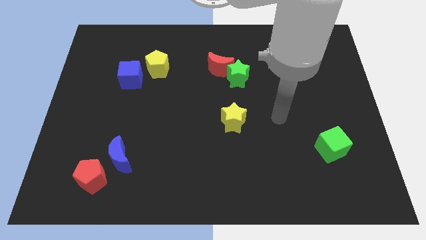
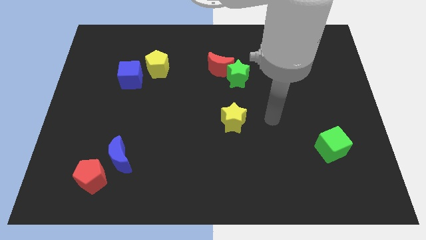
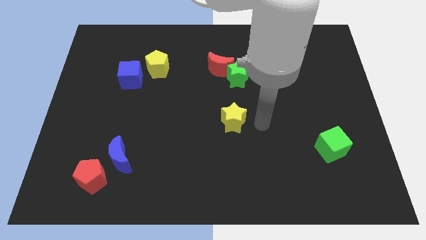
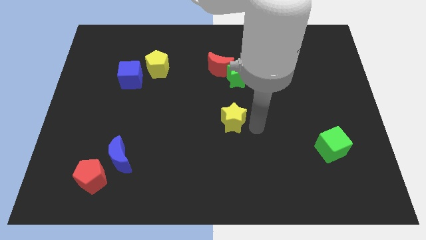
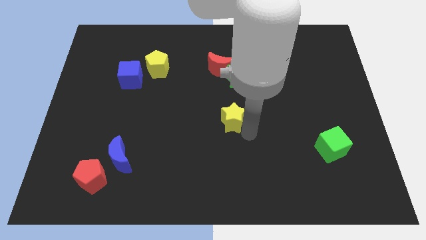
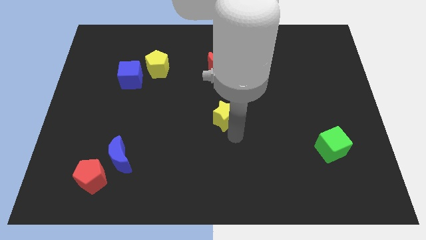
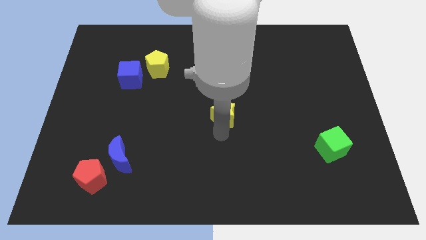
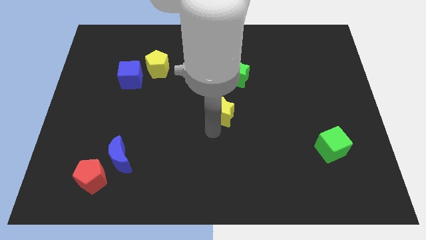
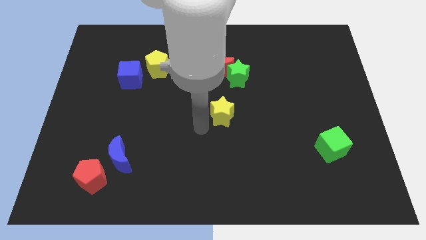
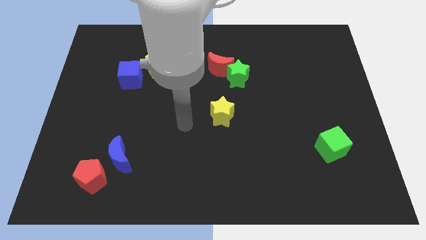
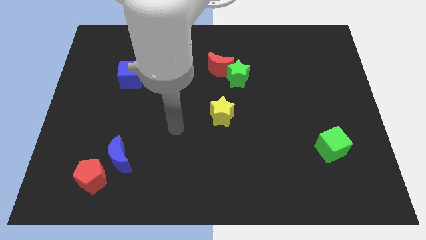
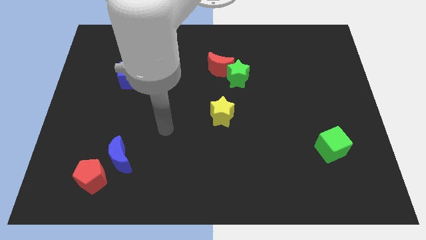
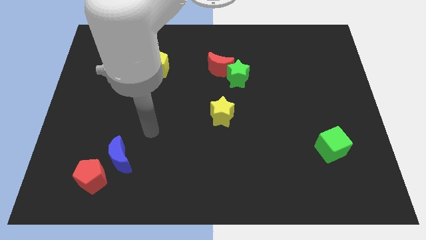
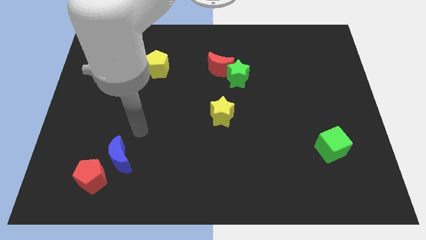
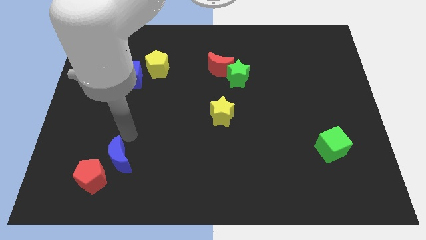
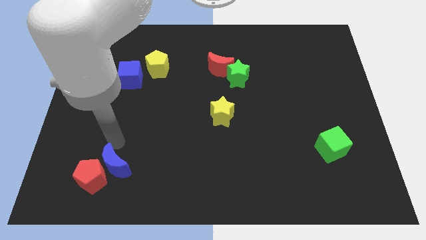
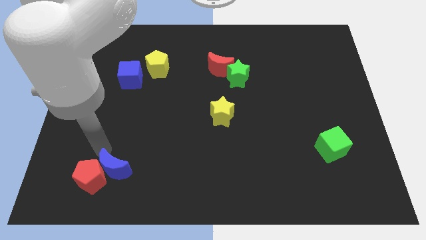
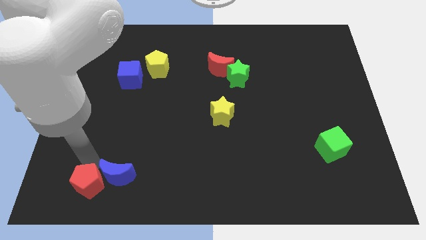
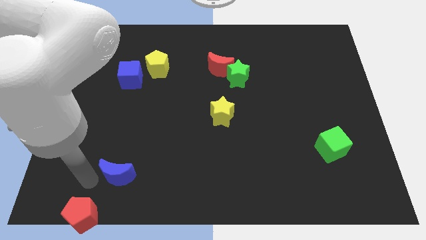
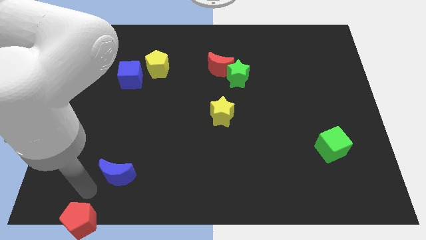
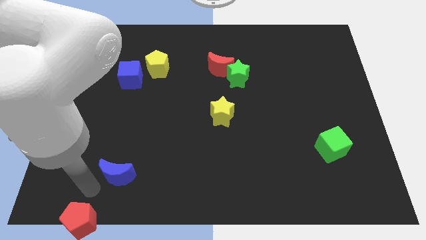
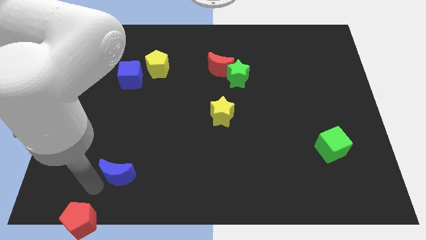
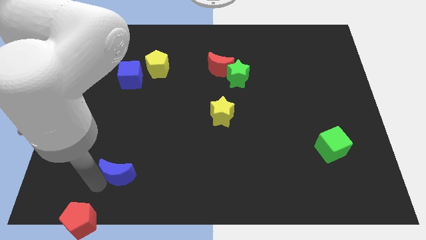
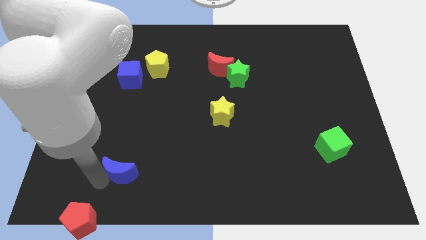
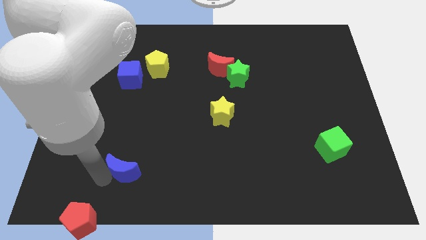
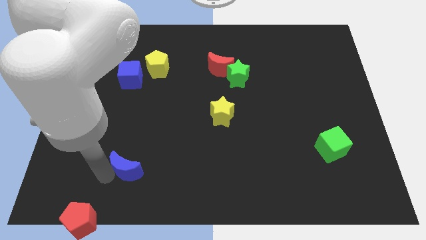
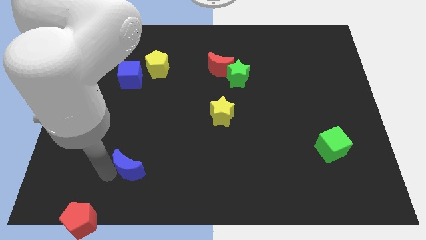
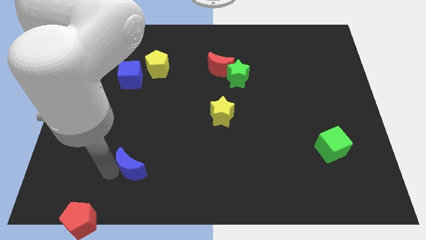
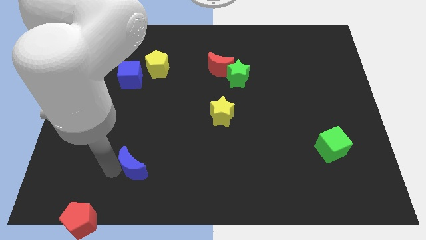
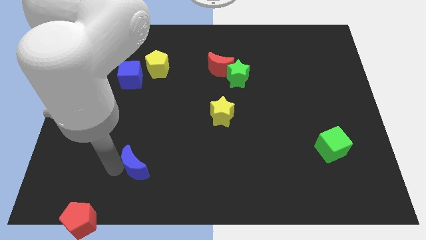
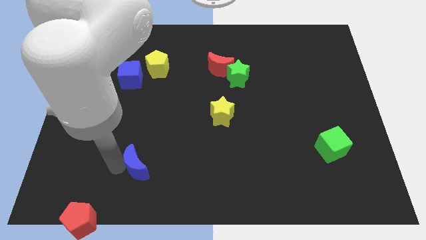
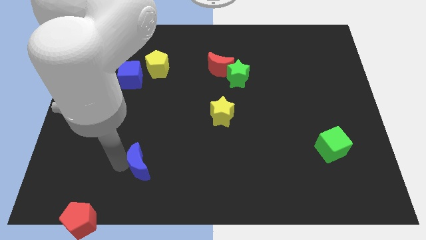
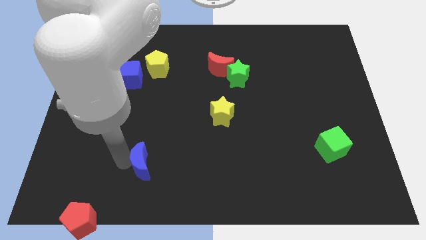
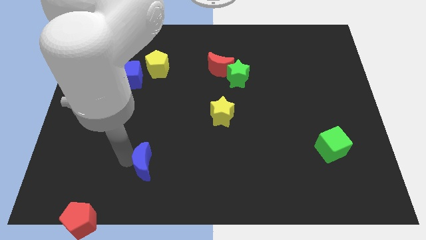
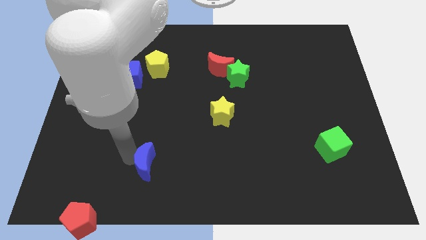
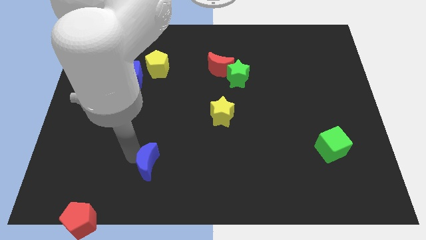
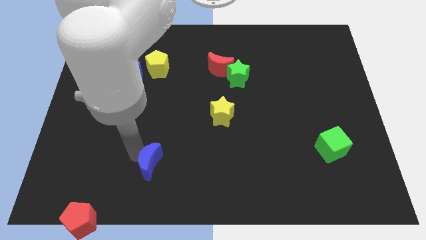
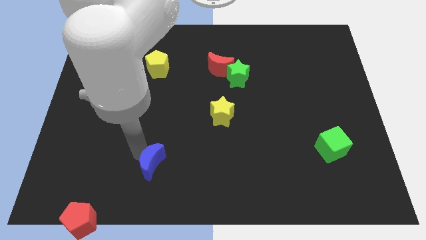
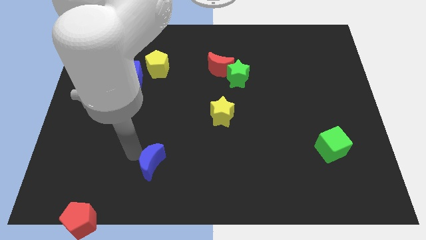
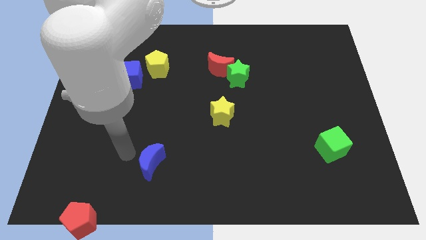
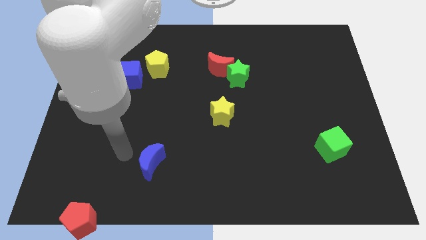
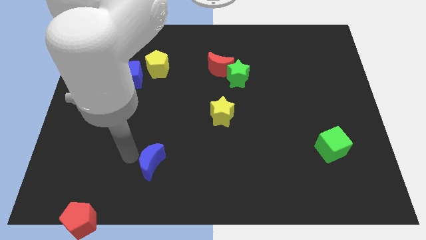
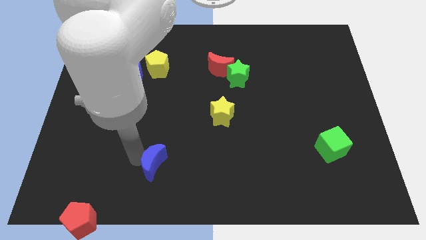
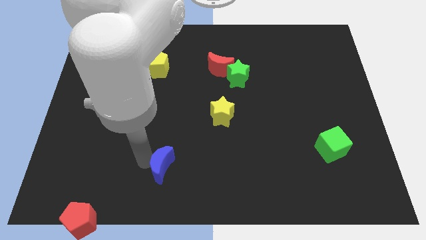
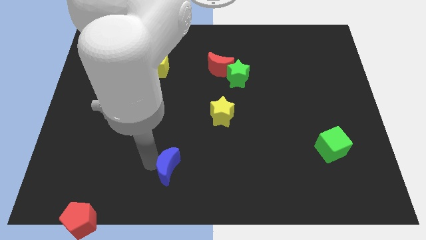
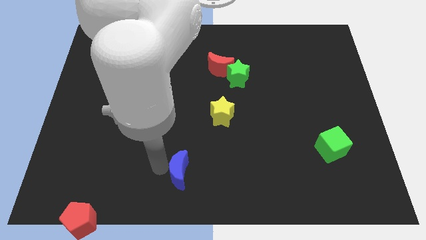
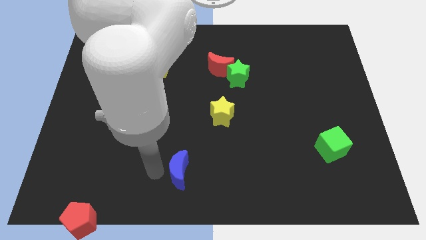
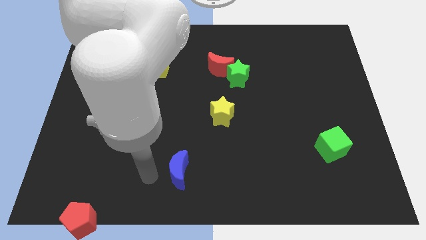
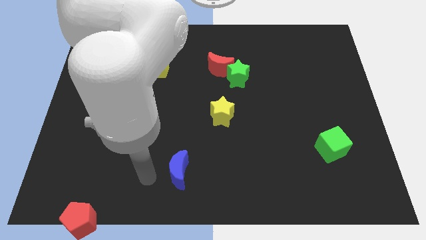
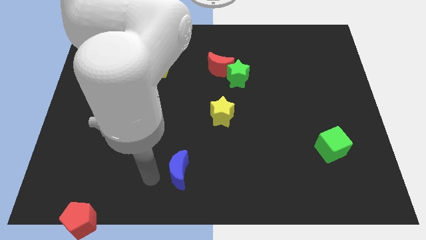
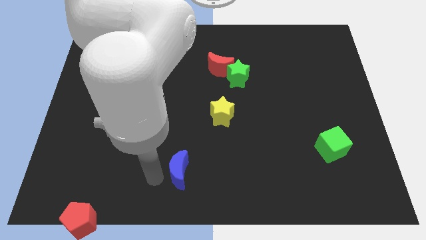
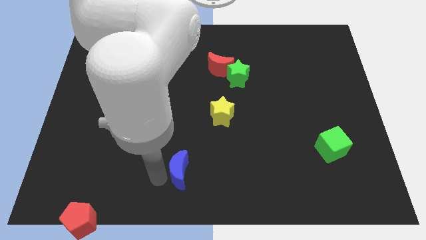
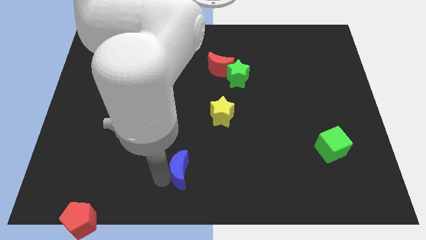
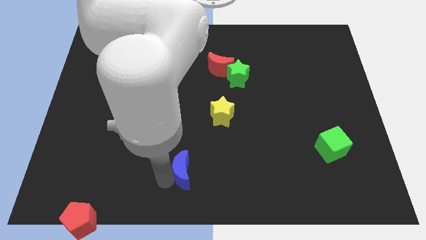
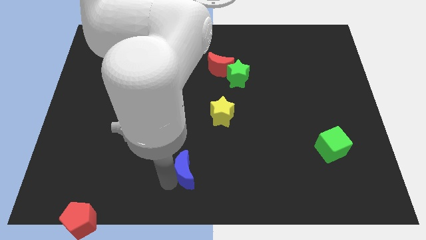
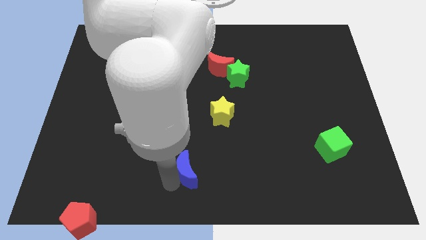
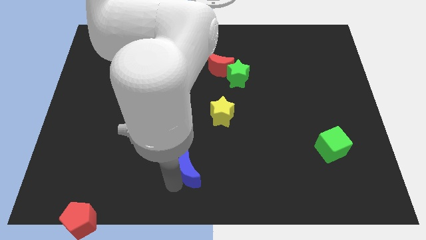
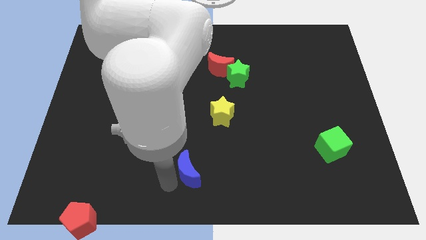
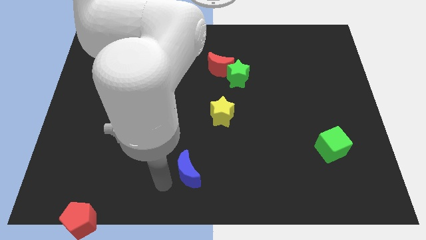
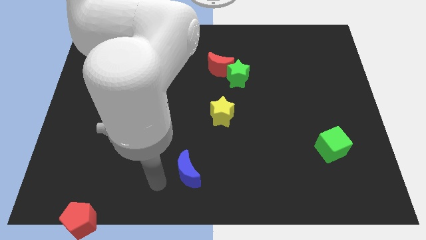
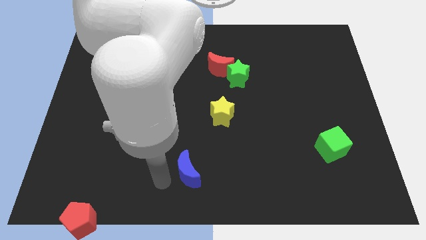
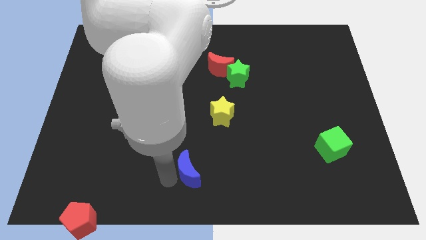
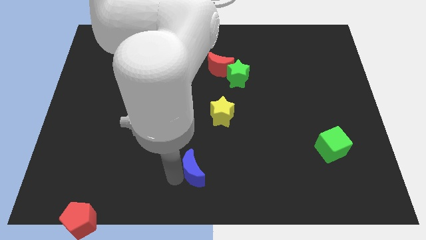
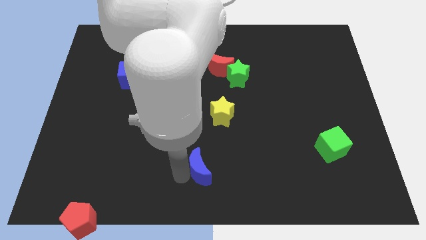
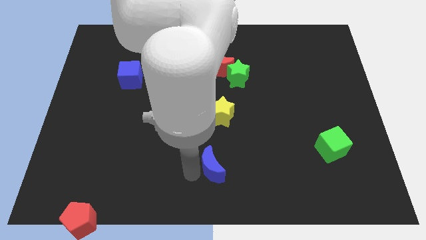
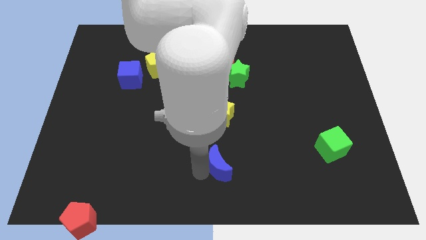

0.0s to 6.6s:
push the blue moon right

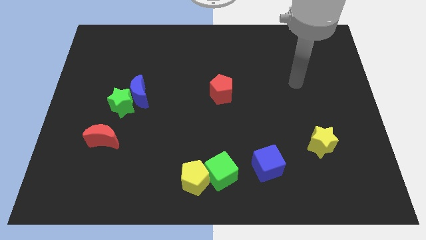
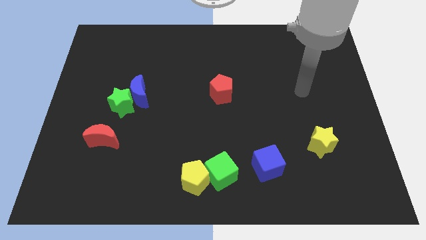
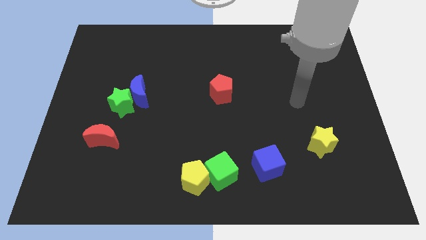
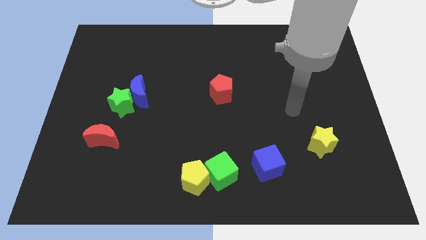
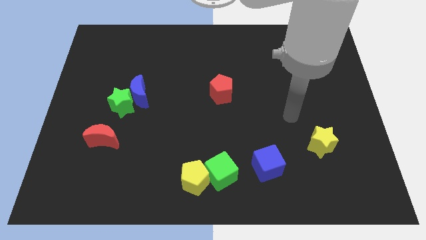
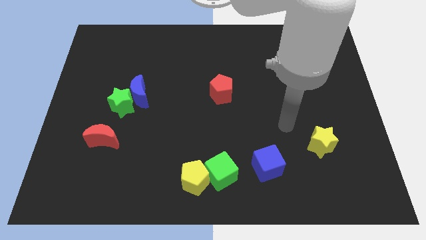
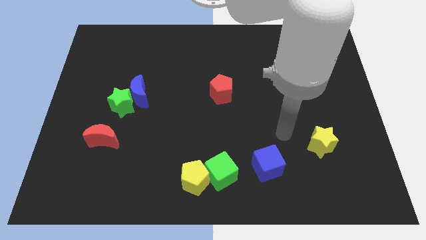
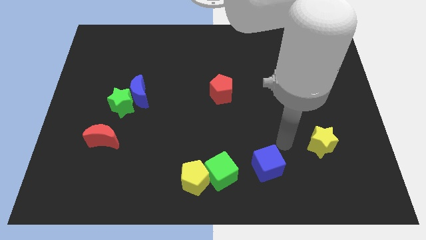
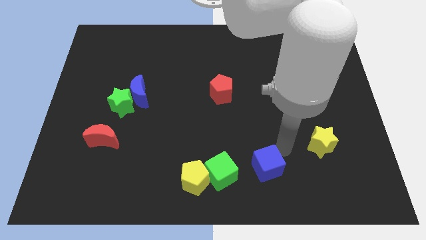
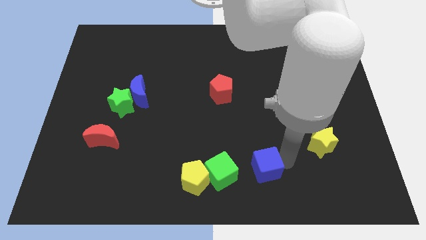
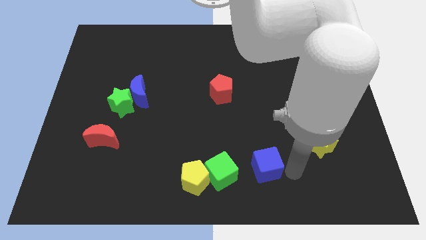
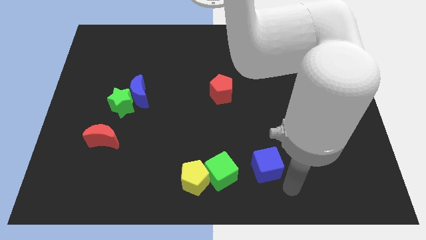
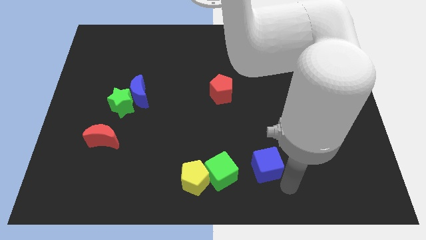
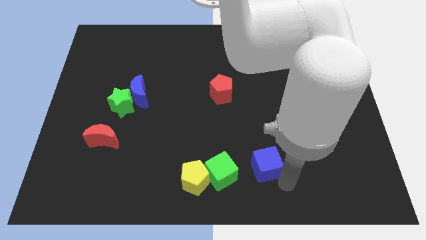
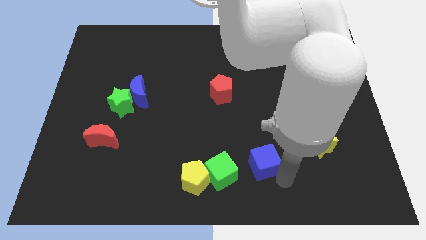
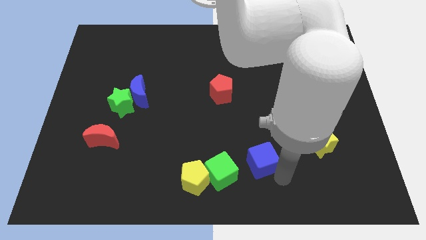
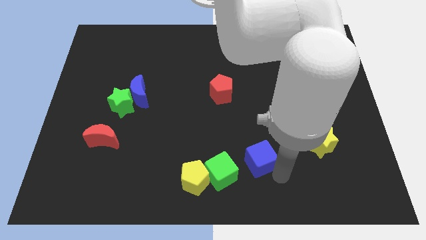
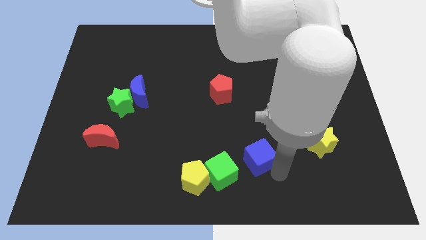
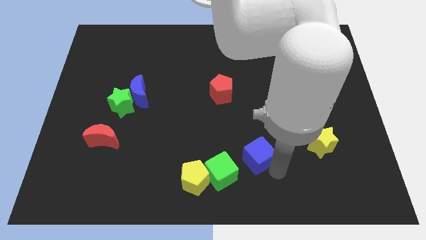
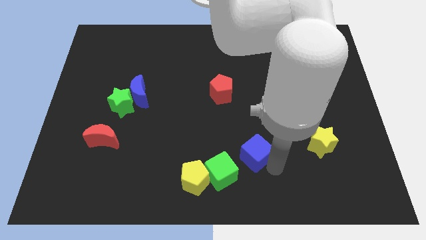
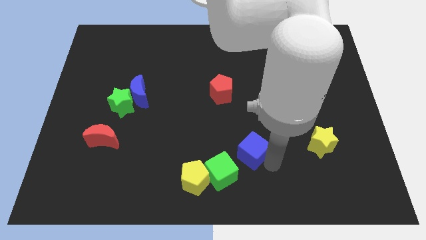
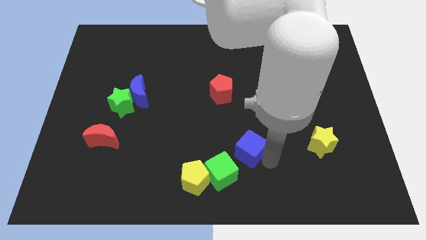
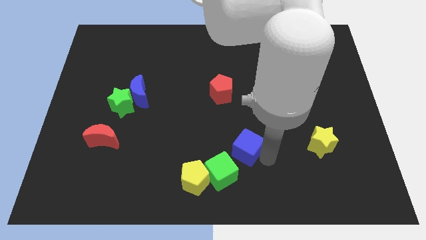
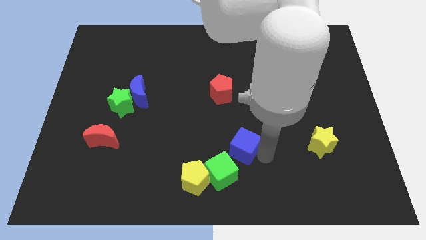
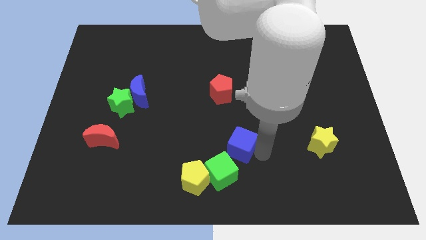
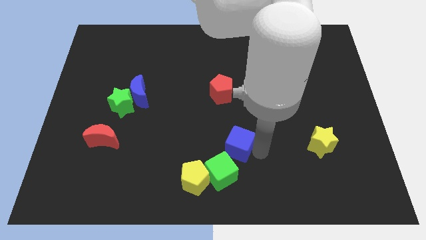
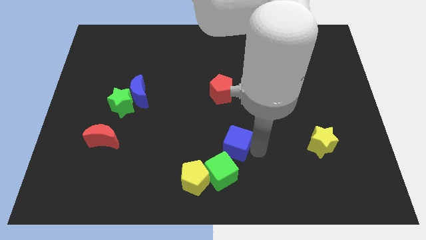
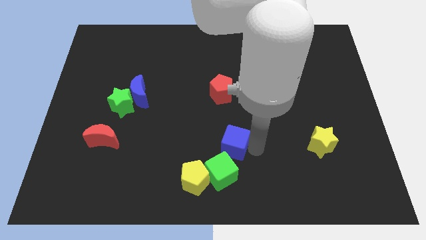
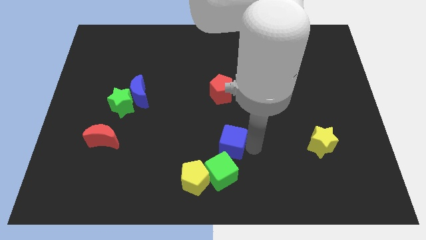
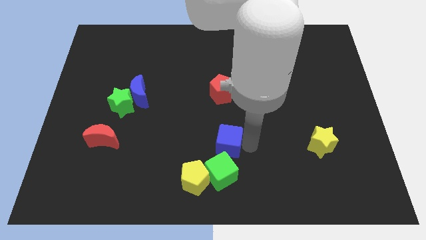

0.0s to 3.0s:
slightly slide the blue cube left
